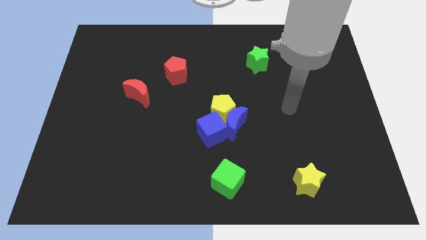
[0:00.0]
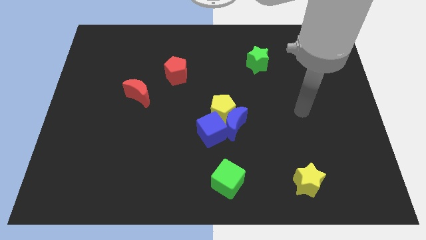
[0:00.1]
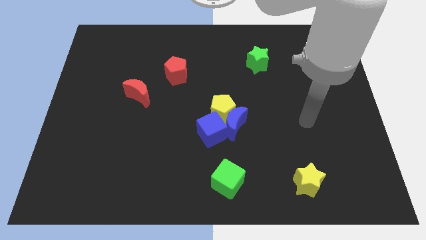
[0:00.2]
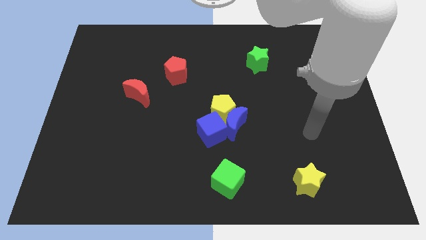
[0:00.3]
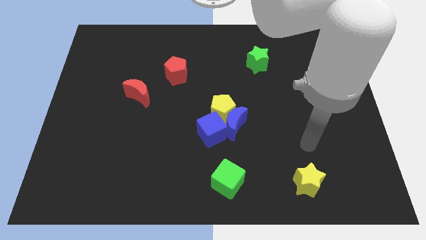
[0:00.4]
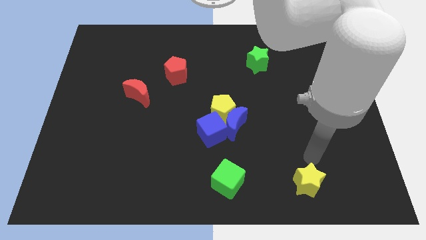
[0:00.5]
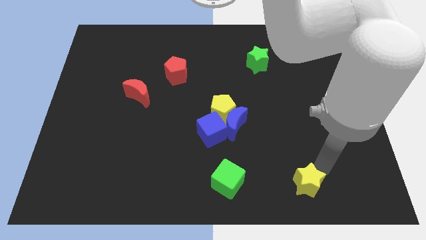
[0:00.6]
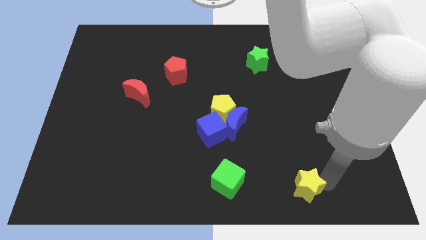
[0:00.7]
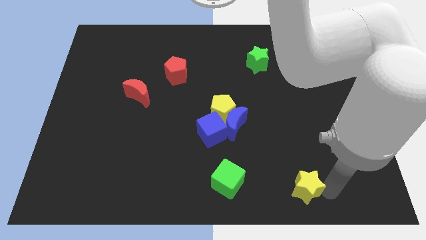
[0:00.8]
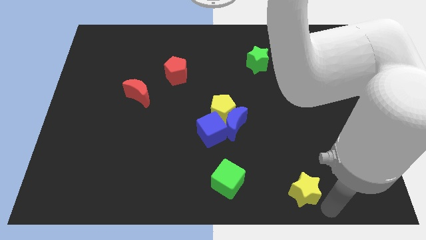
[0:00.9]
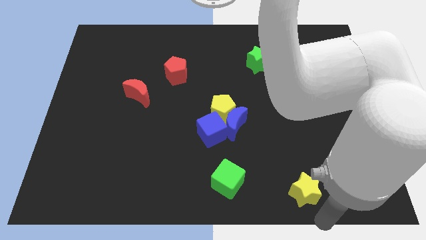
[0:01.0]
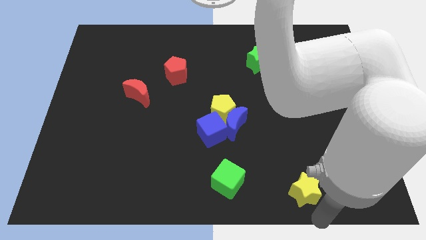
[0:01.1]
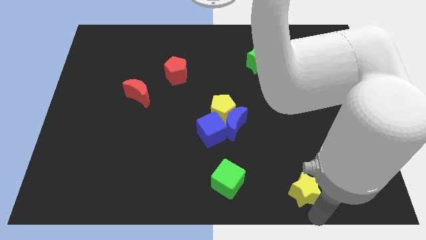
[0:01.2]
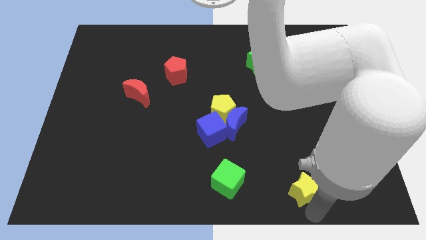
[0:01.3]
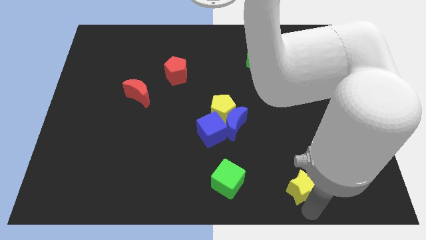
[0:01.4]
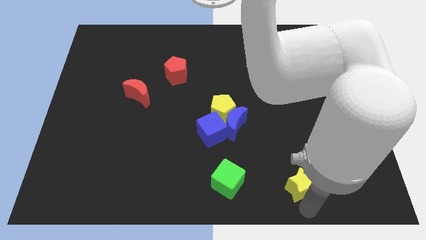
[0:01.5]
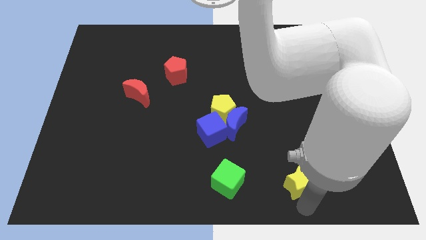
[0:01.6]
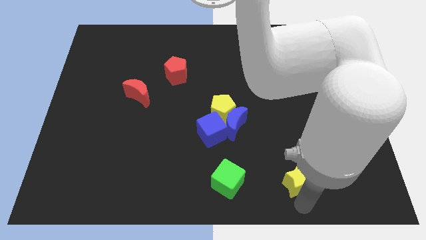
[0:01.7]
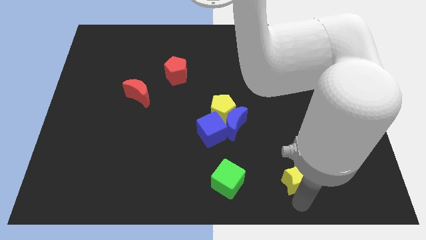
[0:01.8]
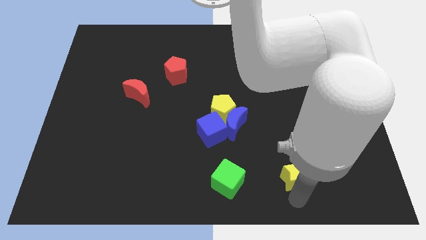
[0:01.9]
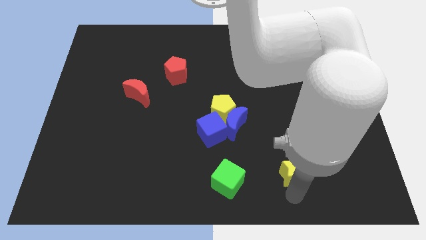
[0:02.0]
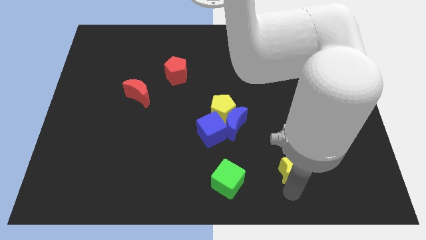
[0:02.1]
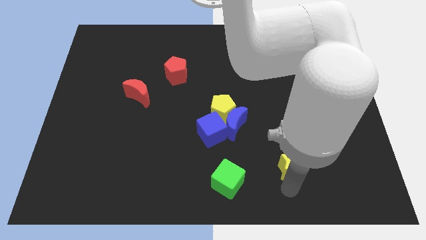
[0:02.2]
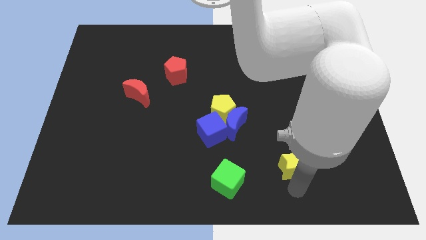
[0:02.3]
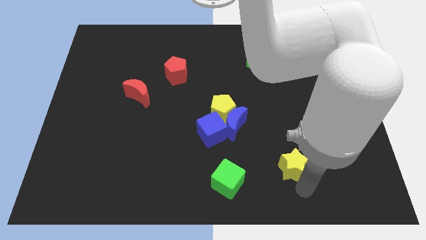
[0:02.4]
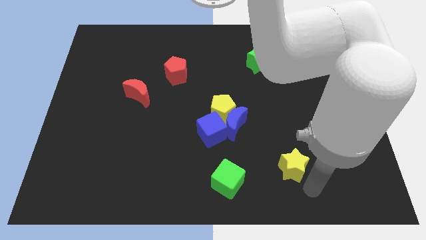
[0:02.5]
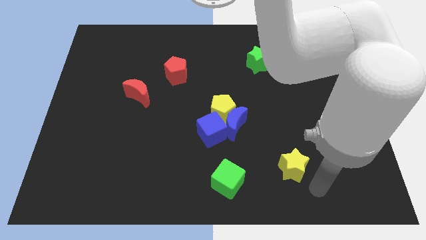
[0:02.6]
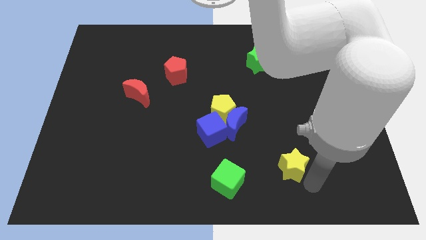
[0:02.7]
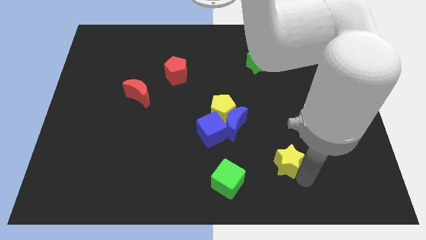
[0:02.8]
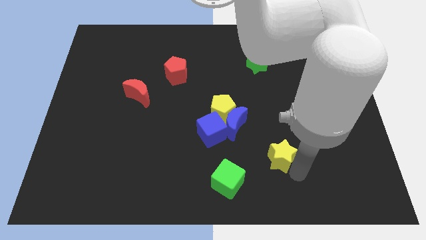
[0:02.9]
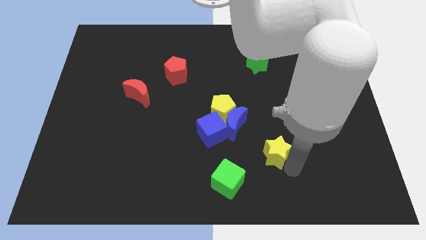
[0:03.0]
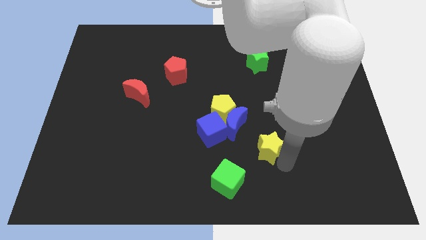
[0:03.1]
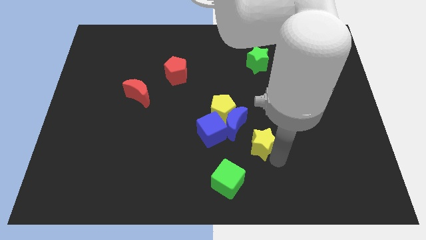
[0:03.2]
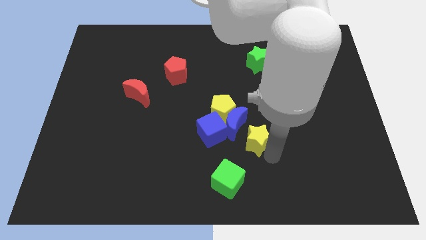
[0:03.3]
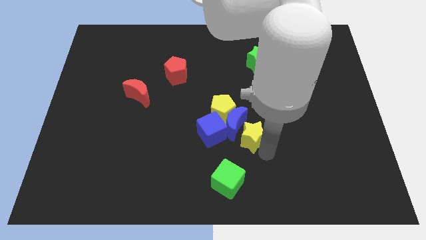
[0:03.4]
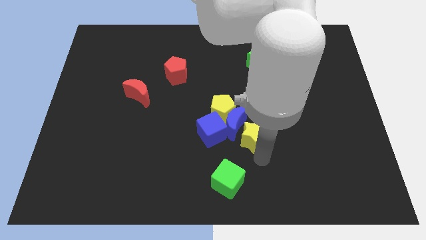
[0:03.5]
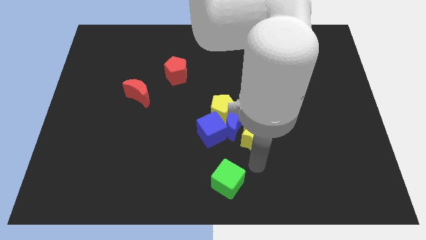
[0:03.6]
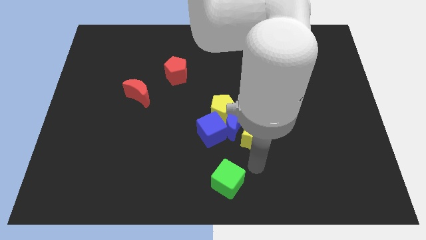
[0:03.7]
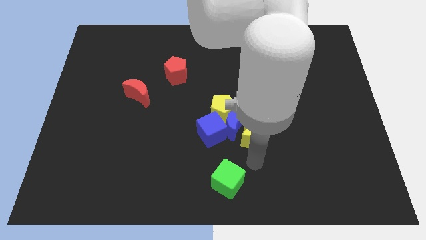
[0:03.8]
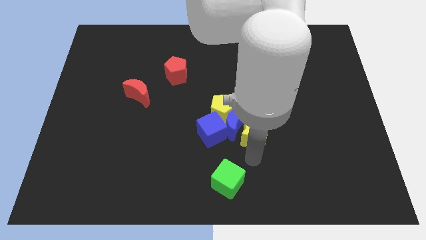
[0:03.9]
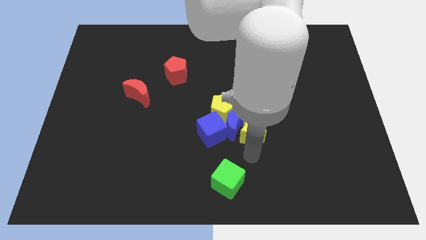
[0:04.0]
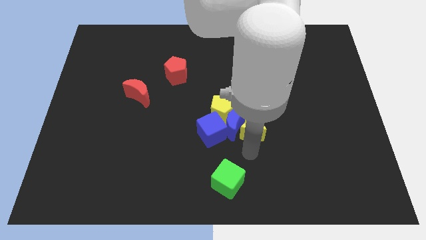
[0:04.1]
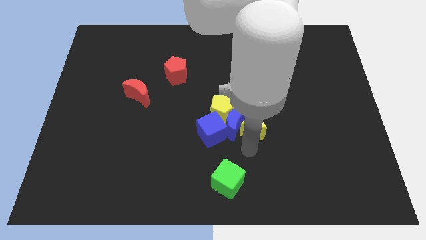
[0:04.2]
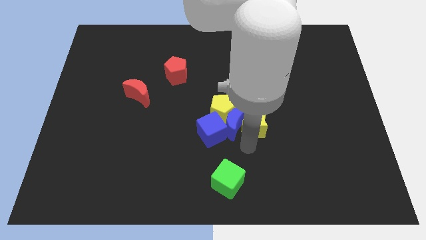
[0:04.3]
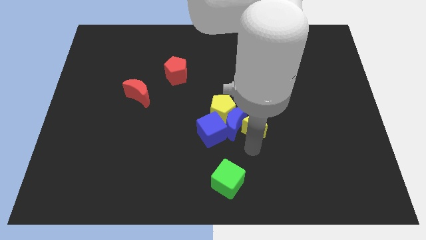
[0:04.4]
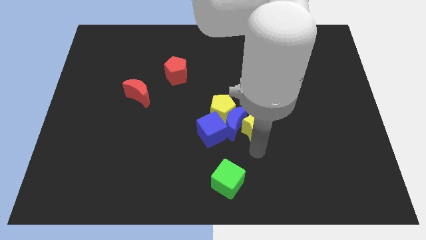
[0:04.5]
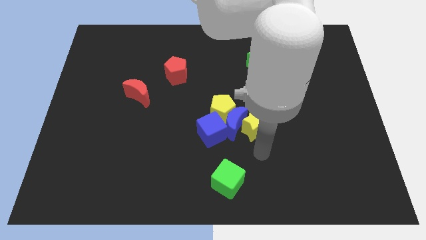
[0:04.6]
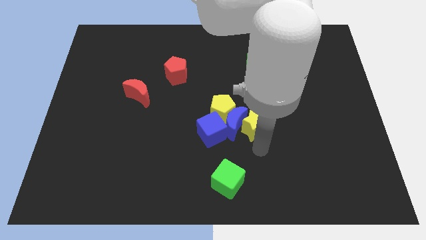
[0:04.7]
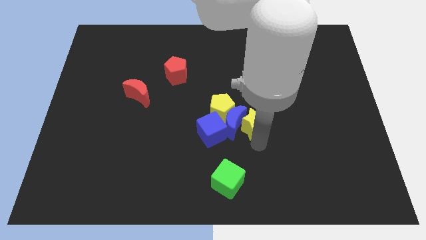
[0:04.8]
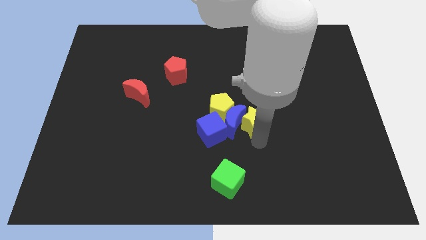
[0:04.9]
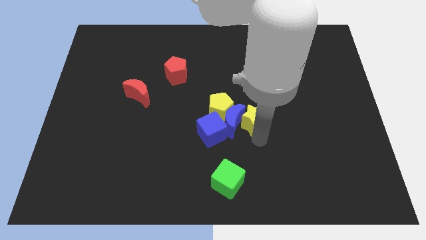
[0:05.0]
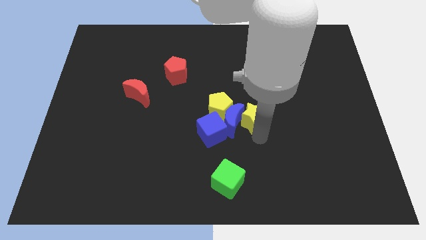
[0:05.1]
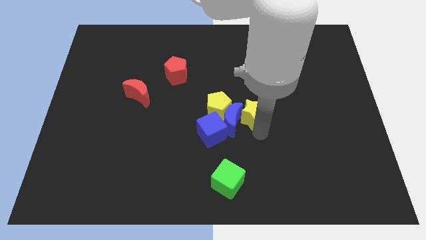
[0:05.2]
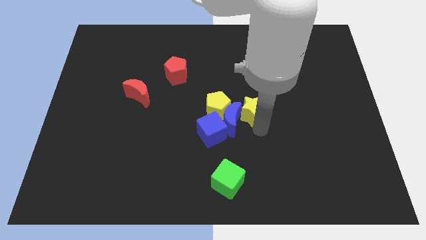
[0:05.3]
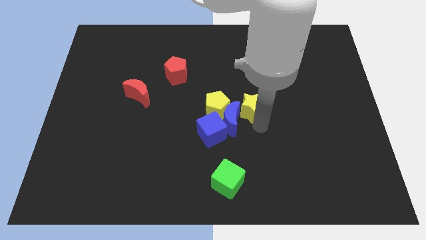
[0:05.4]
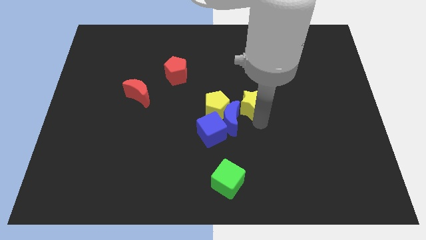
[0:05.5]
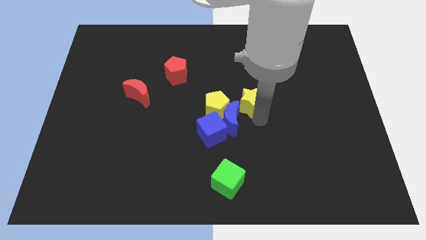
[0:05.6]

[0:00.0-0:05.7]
push the yellow star up and to the left

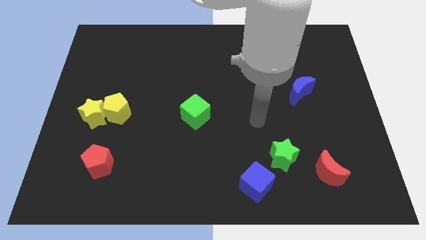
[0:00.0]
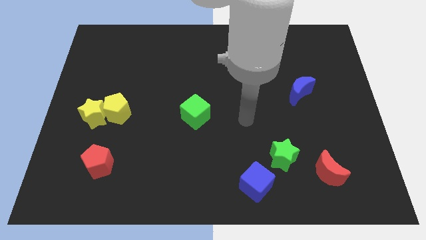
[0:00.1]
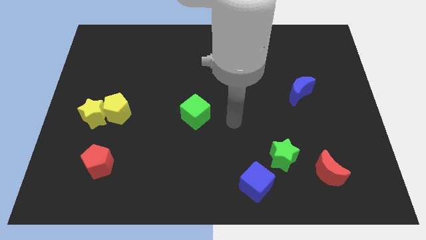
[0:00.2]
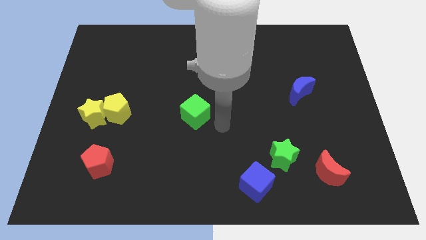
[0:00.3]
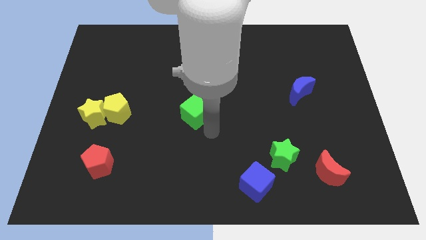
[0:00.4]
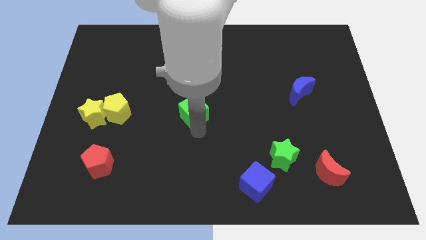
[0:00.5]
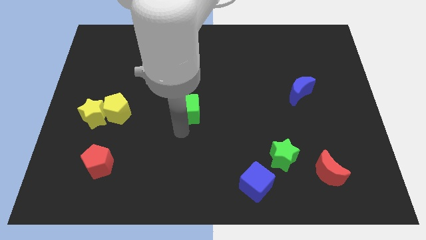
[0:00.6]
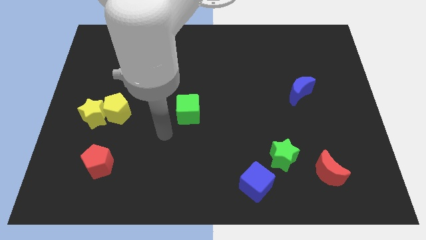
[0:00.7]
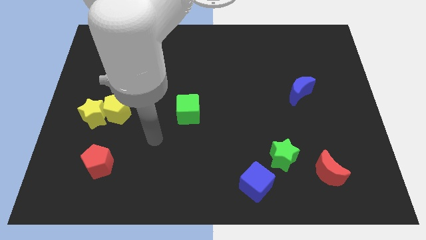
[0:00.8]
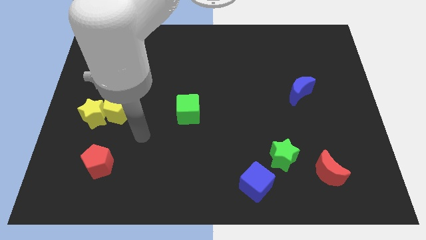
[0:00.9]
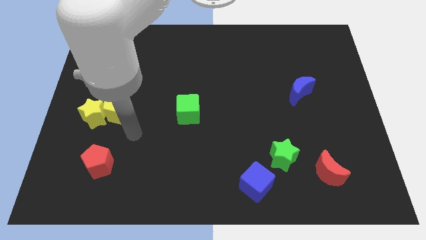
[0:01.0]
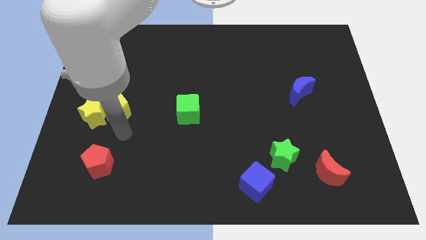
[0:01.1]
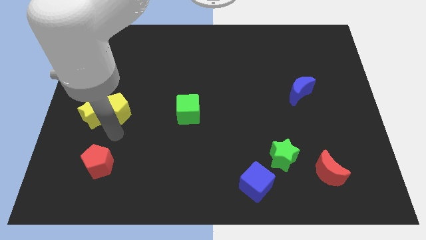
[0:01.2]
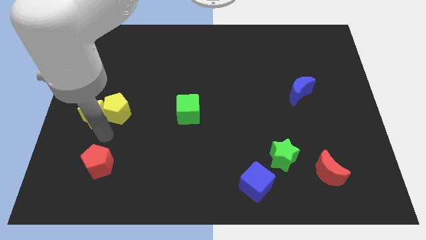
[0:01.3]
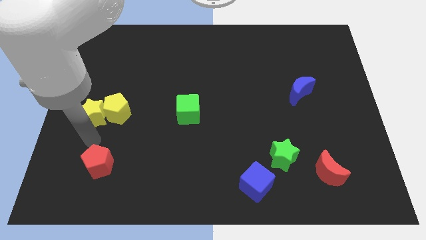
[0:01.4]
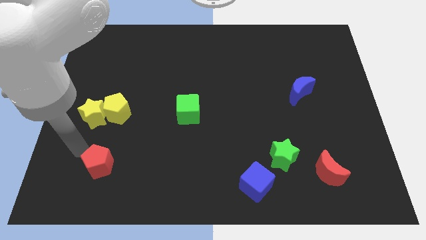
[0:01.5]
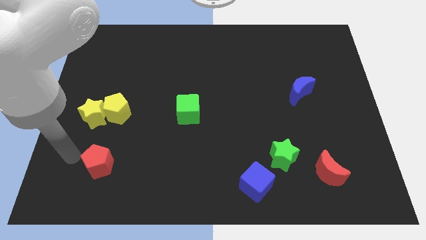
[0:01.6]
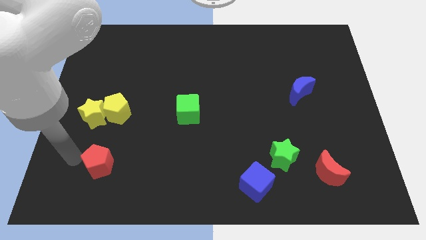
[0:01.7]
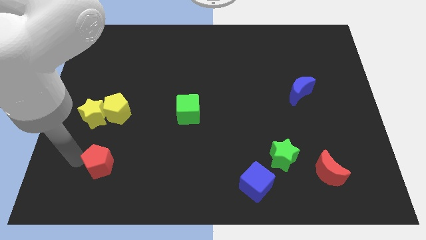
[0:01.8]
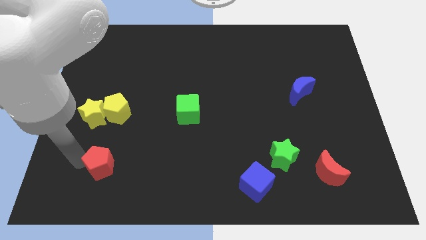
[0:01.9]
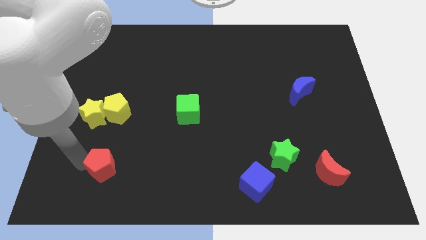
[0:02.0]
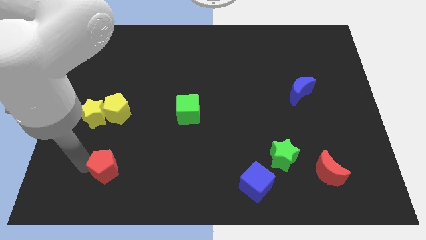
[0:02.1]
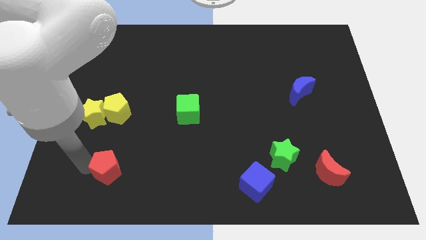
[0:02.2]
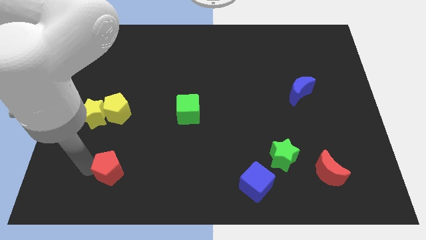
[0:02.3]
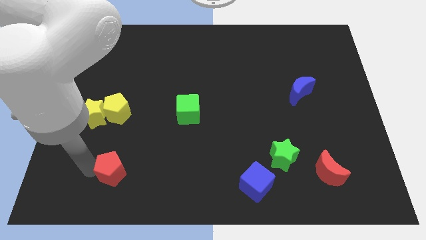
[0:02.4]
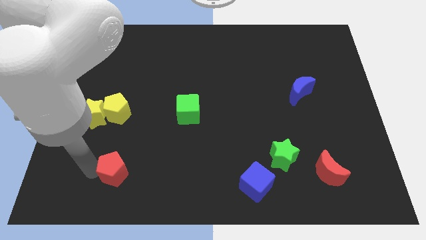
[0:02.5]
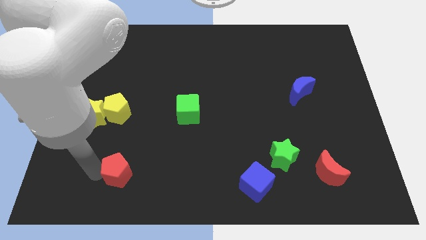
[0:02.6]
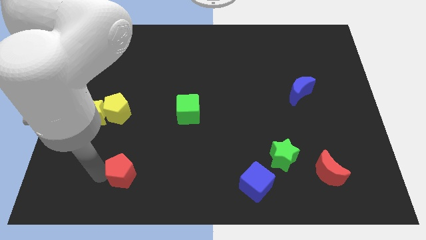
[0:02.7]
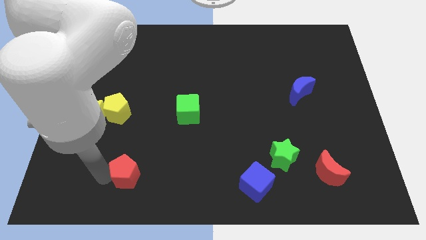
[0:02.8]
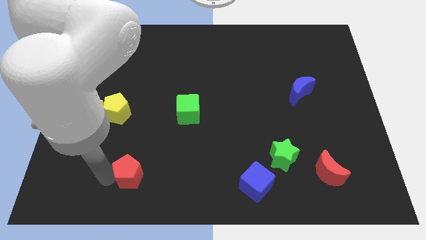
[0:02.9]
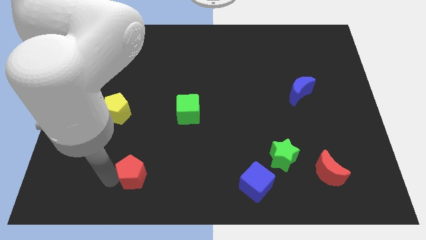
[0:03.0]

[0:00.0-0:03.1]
slightly slide the red pentagon to the right
